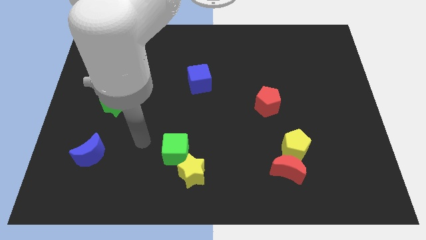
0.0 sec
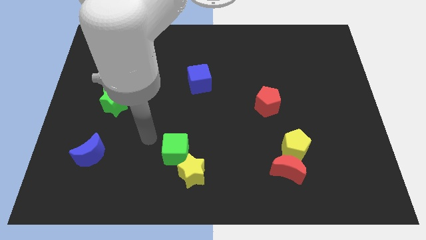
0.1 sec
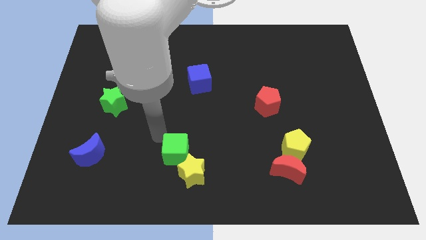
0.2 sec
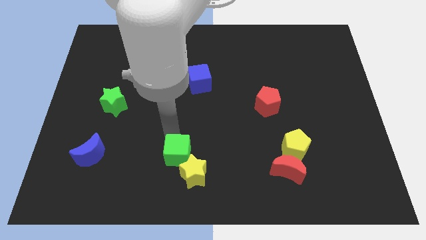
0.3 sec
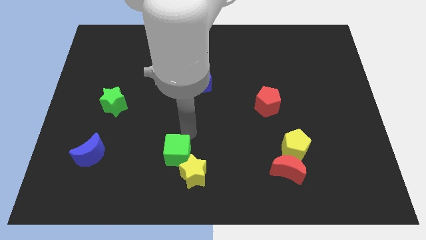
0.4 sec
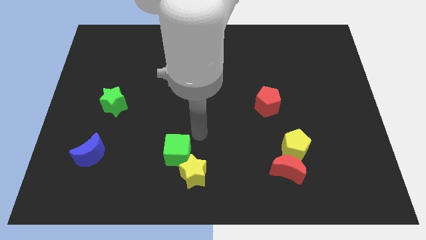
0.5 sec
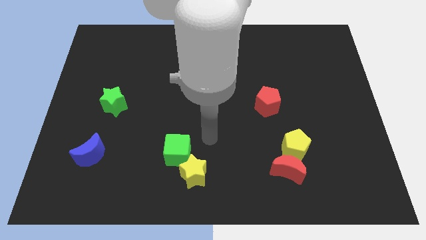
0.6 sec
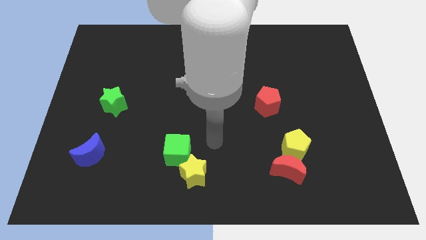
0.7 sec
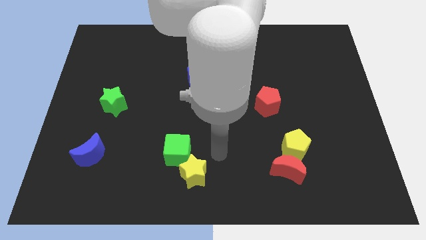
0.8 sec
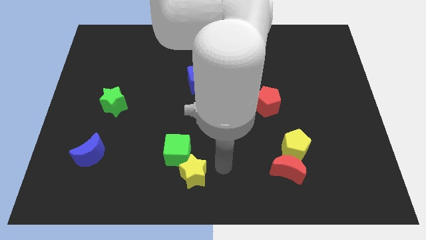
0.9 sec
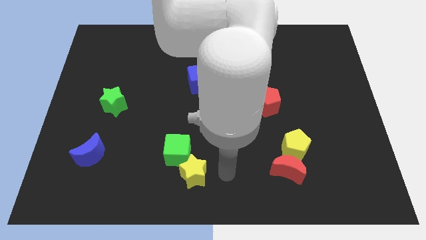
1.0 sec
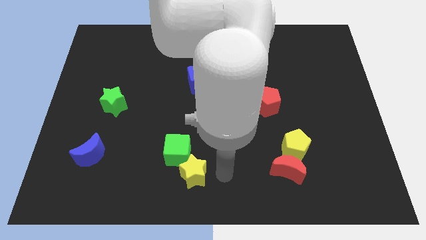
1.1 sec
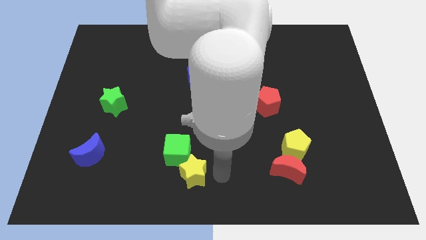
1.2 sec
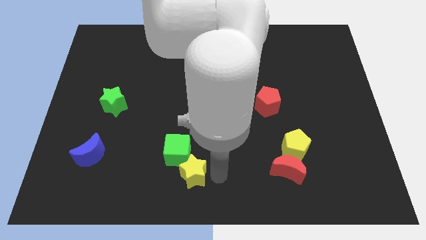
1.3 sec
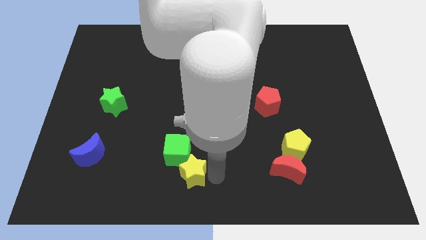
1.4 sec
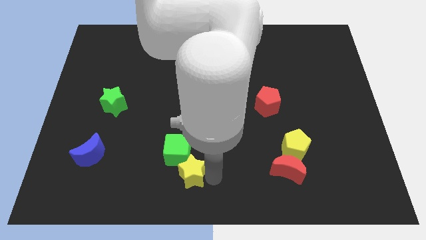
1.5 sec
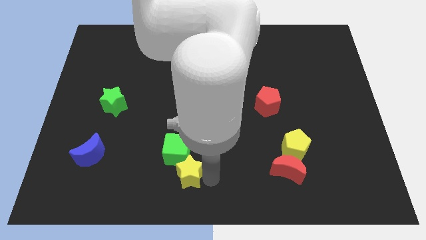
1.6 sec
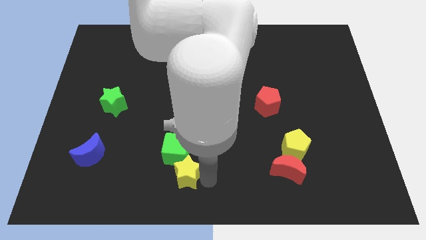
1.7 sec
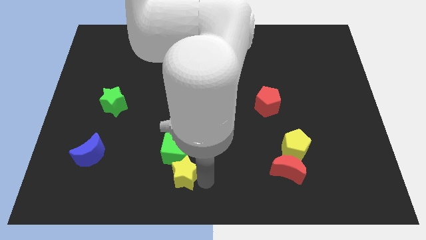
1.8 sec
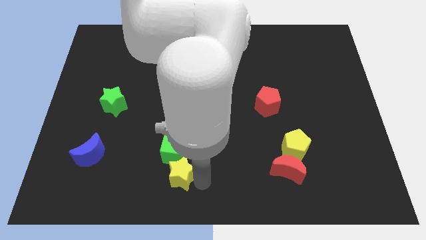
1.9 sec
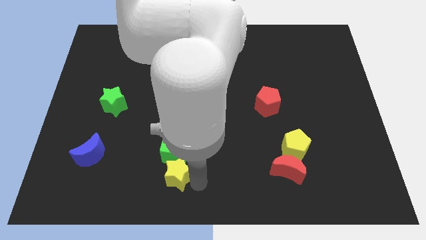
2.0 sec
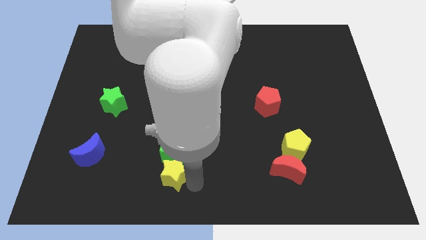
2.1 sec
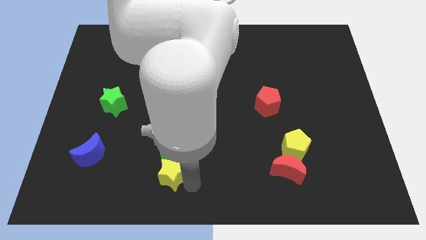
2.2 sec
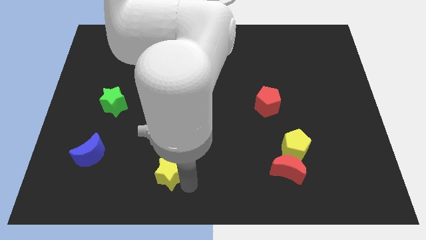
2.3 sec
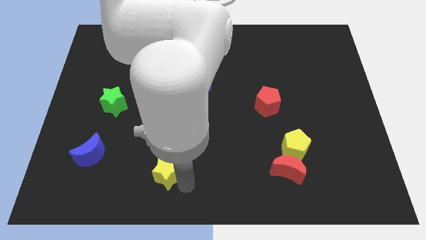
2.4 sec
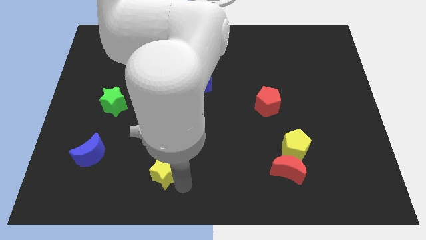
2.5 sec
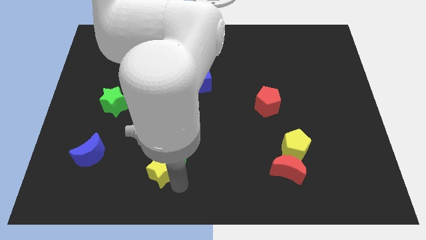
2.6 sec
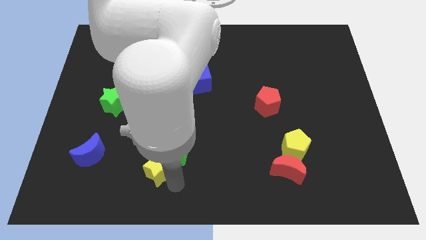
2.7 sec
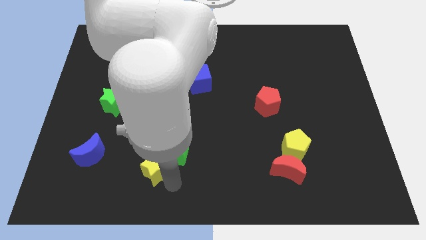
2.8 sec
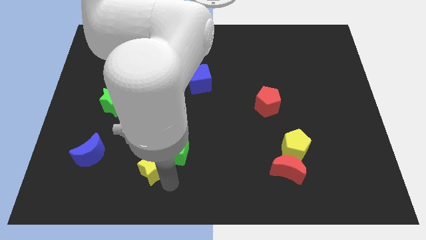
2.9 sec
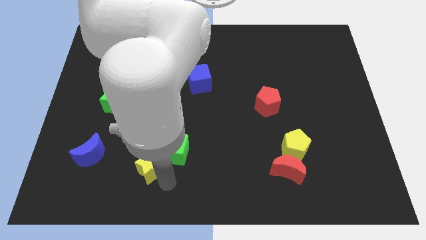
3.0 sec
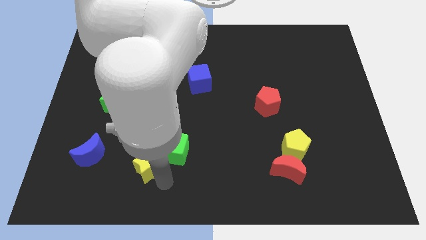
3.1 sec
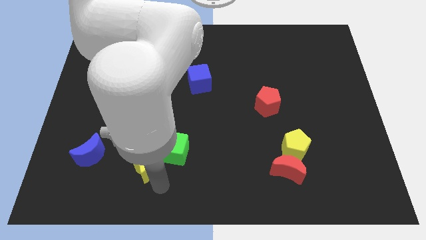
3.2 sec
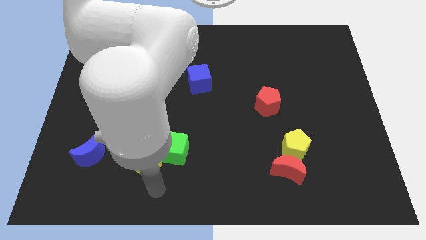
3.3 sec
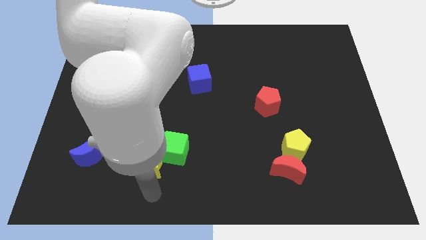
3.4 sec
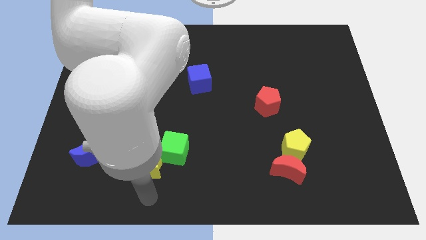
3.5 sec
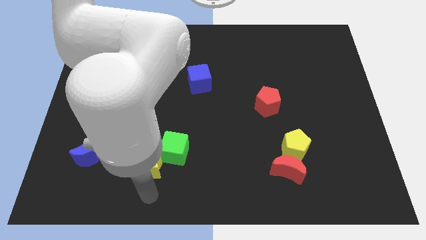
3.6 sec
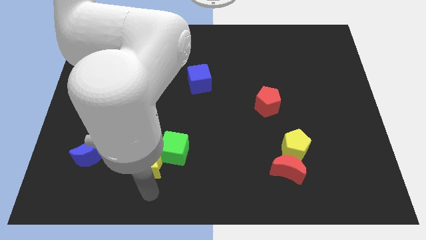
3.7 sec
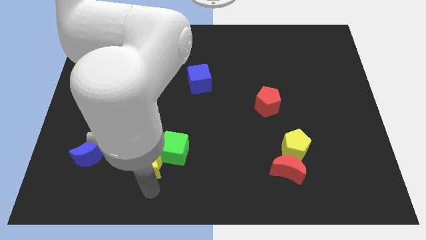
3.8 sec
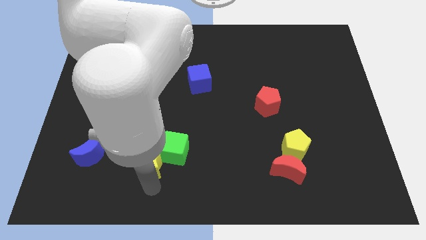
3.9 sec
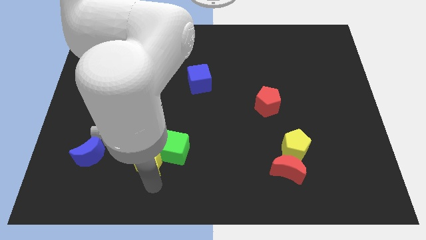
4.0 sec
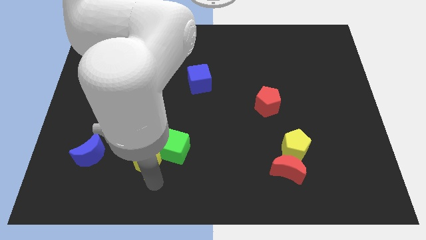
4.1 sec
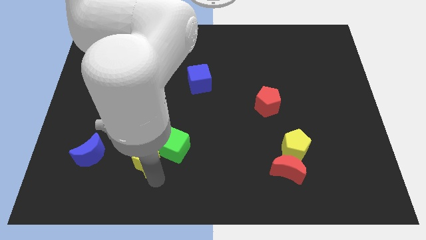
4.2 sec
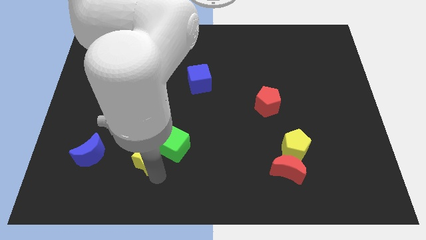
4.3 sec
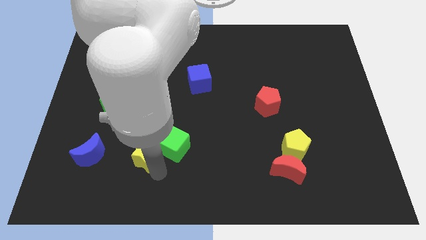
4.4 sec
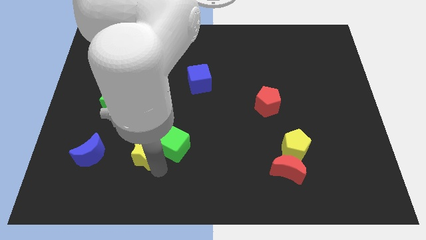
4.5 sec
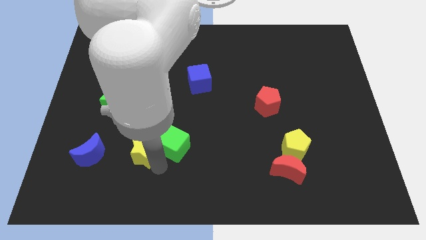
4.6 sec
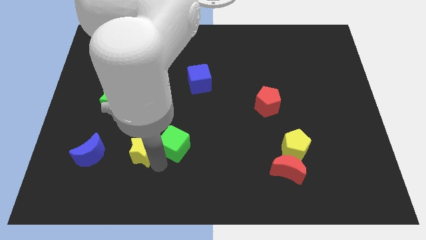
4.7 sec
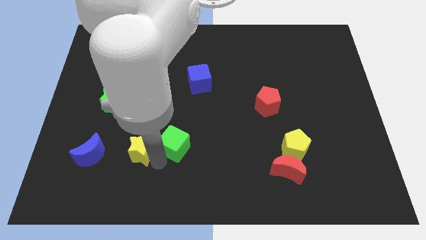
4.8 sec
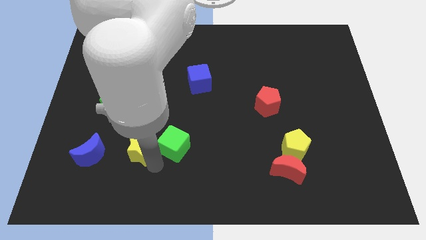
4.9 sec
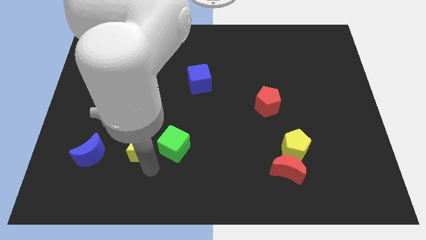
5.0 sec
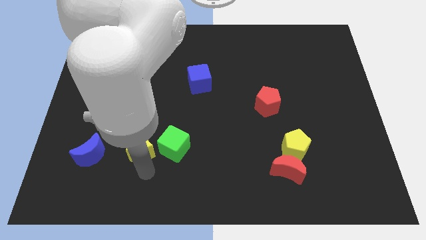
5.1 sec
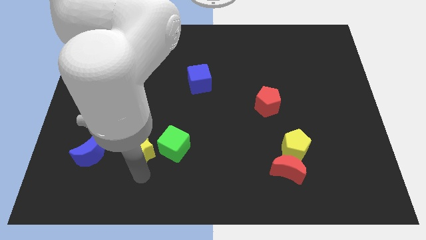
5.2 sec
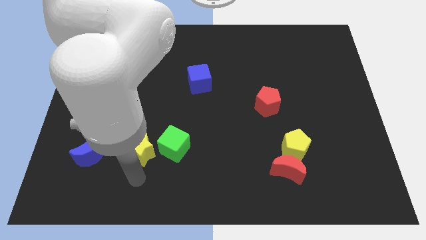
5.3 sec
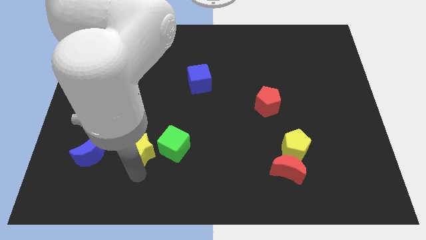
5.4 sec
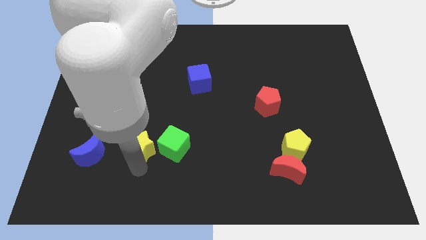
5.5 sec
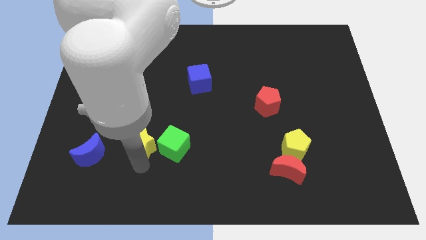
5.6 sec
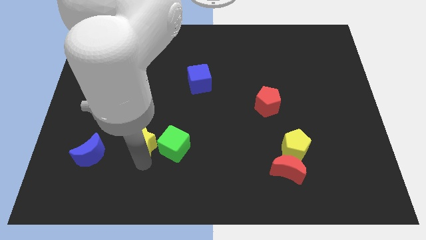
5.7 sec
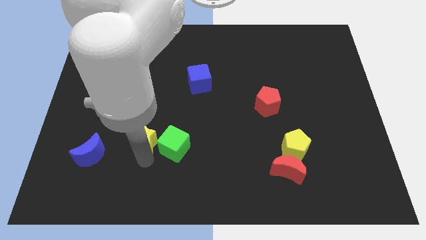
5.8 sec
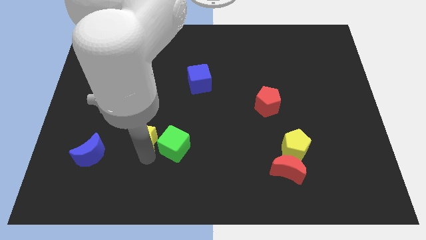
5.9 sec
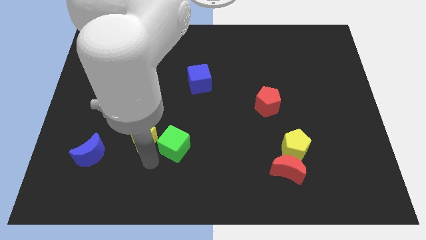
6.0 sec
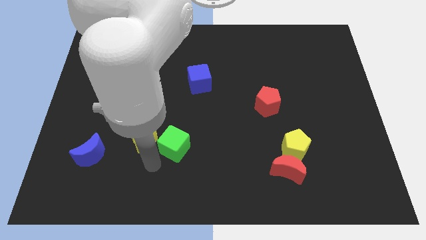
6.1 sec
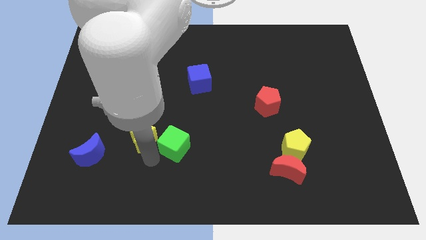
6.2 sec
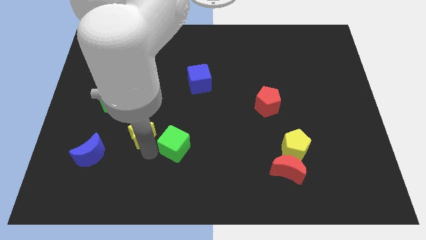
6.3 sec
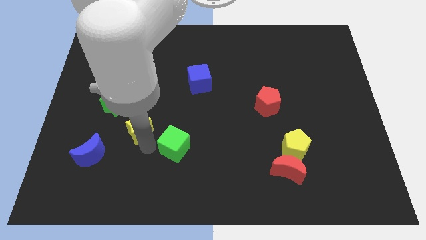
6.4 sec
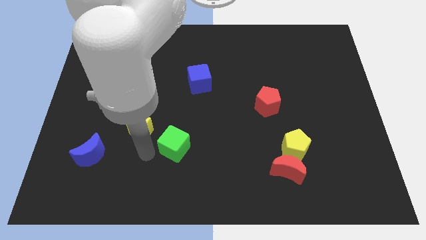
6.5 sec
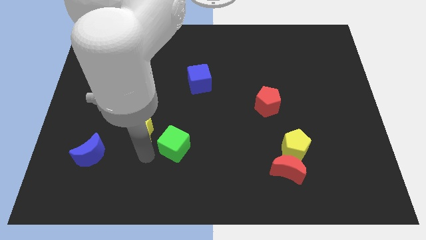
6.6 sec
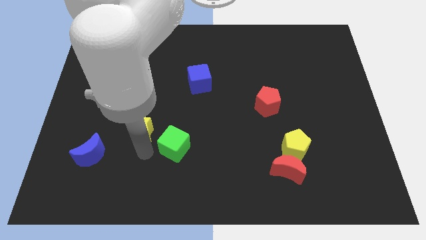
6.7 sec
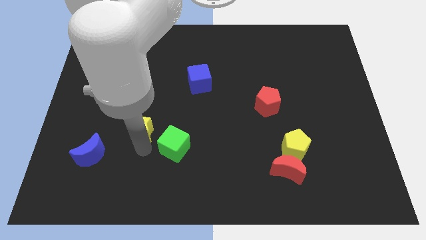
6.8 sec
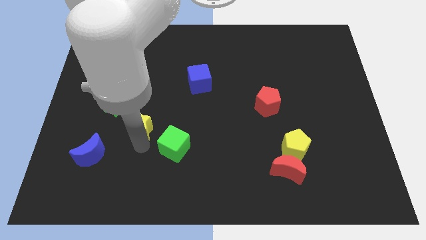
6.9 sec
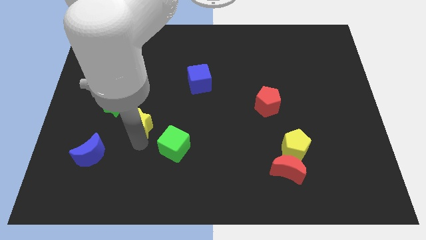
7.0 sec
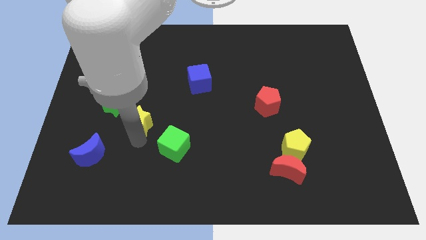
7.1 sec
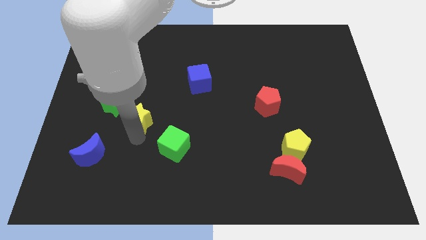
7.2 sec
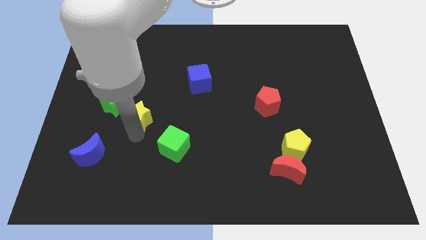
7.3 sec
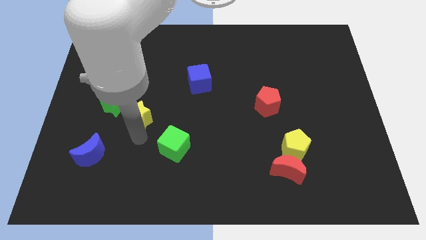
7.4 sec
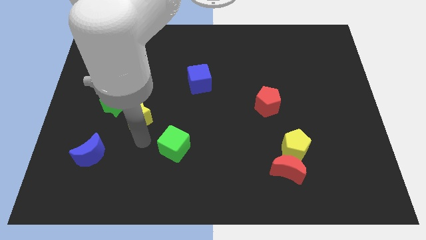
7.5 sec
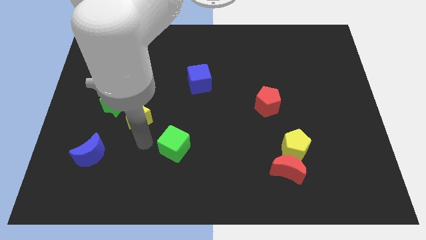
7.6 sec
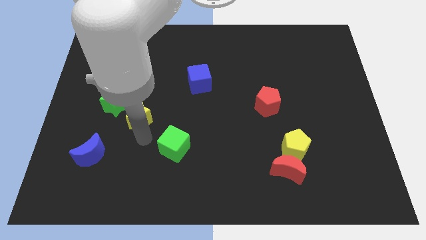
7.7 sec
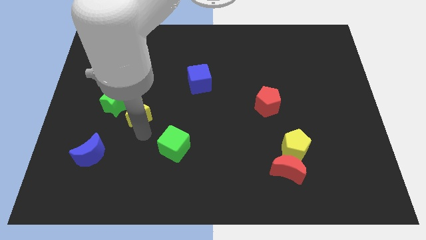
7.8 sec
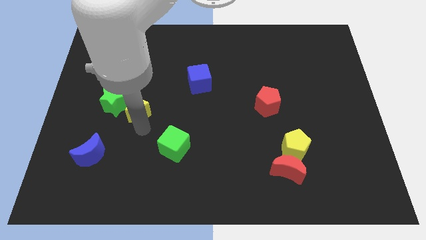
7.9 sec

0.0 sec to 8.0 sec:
move the yellow star up and left
